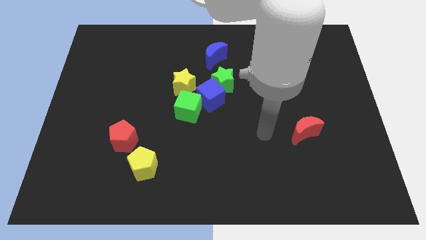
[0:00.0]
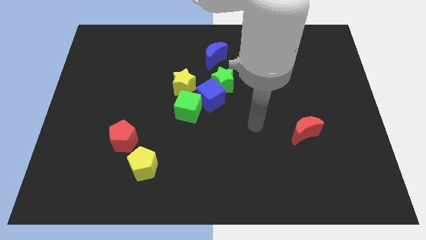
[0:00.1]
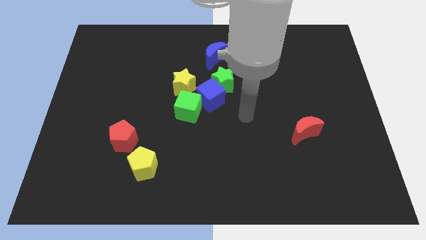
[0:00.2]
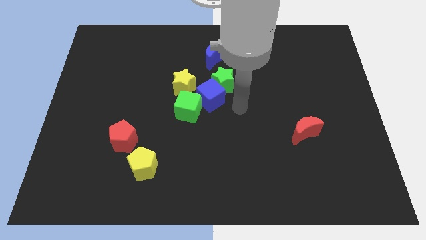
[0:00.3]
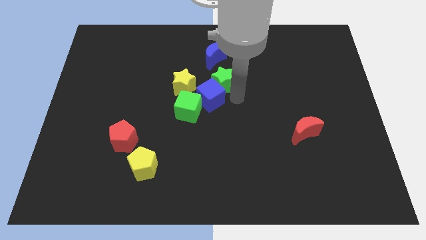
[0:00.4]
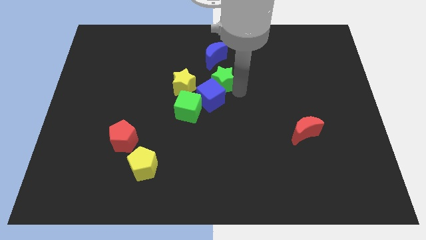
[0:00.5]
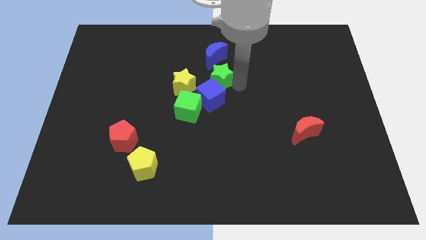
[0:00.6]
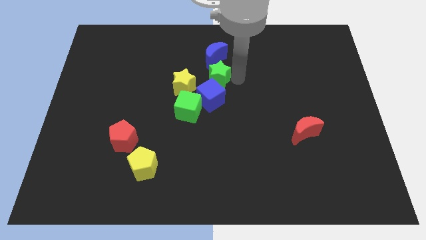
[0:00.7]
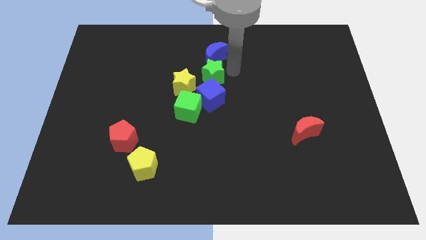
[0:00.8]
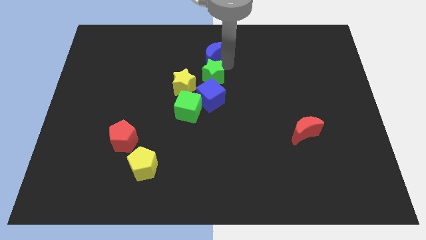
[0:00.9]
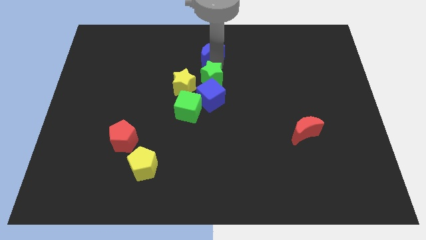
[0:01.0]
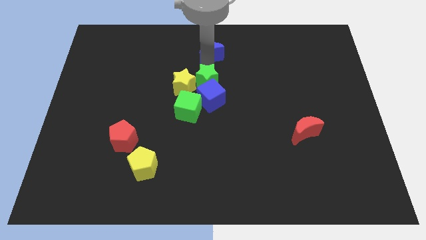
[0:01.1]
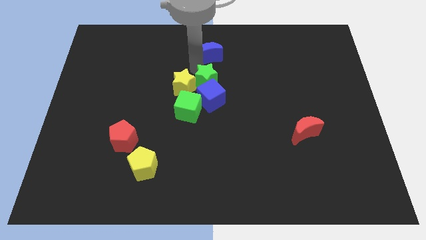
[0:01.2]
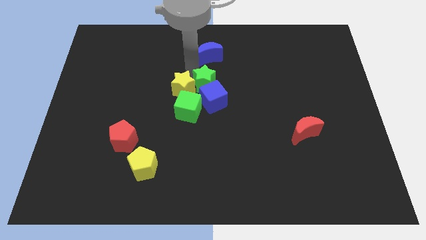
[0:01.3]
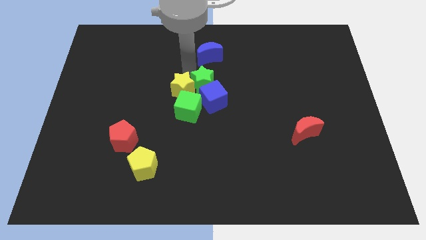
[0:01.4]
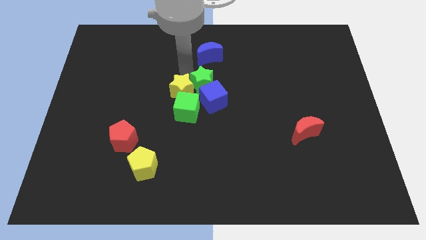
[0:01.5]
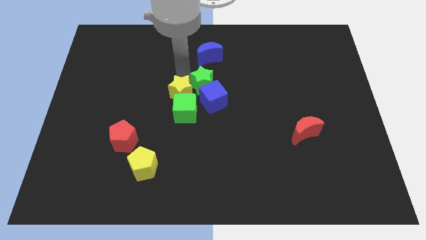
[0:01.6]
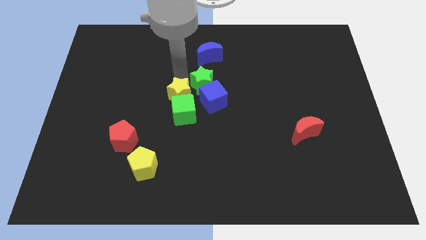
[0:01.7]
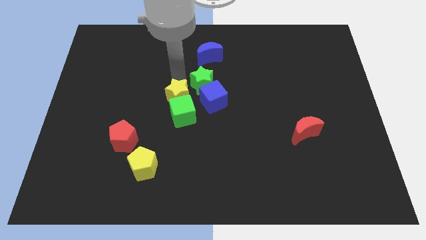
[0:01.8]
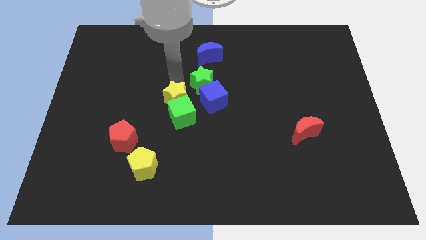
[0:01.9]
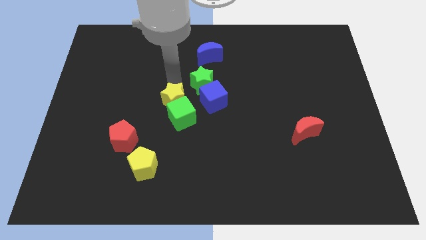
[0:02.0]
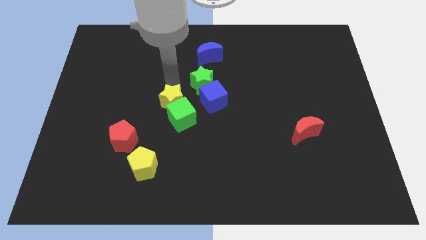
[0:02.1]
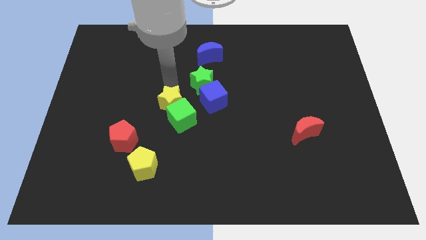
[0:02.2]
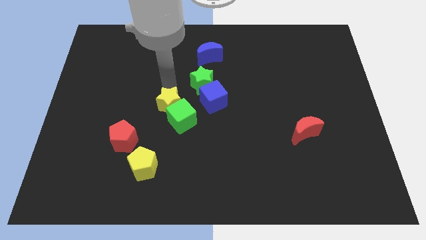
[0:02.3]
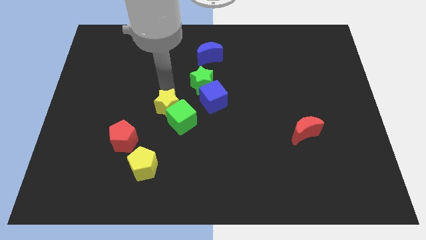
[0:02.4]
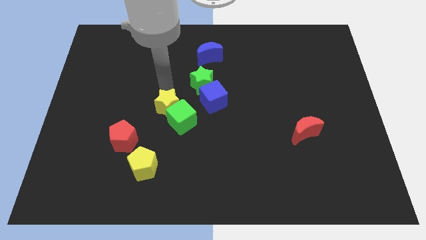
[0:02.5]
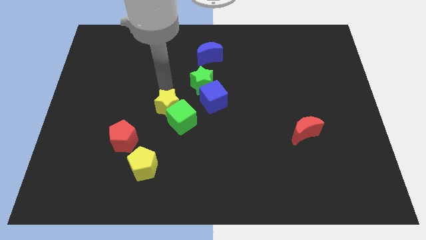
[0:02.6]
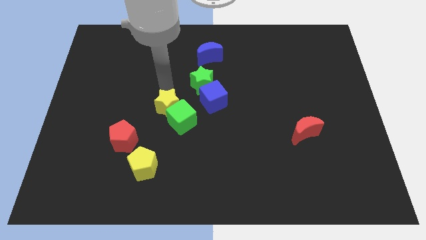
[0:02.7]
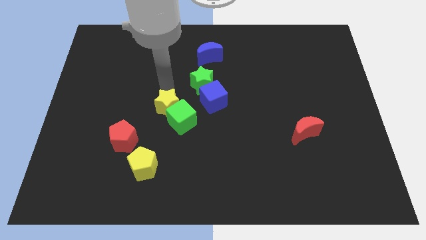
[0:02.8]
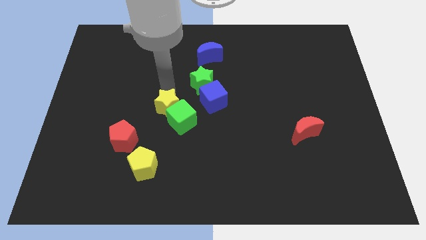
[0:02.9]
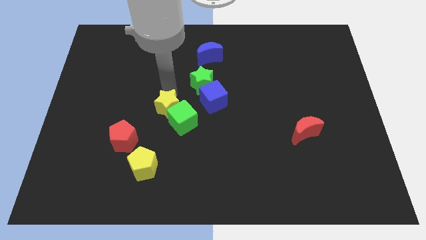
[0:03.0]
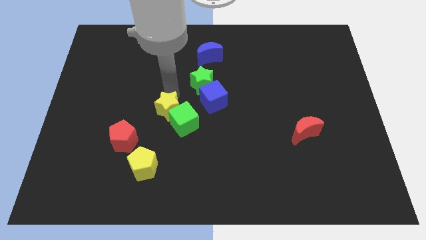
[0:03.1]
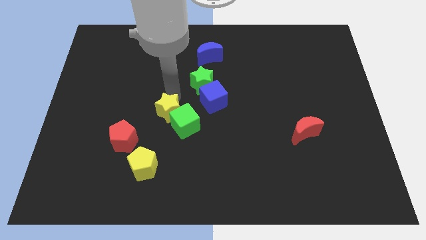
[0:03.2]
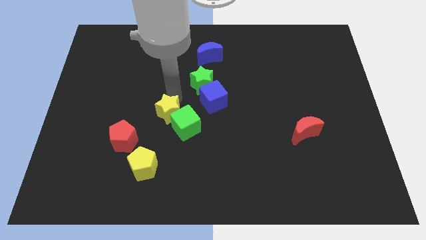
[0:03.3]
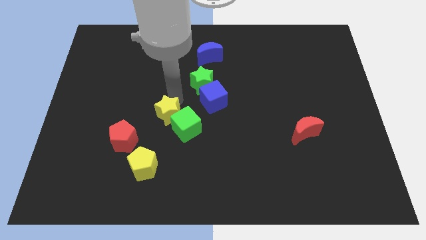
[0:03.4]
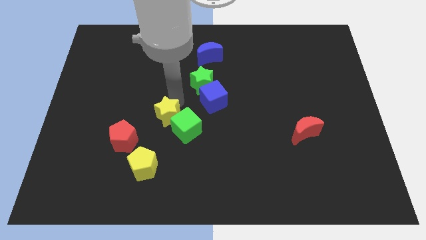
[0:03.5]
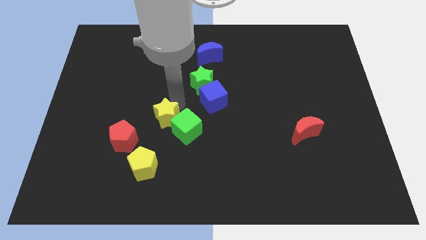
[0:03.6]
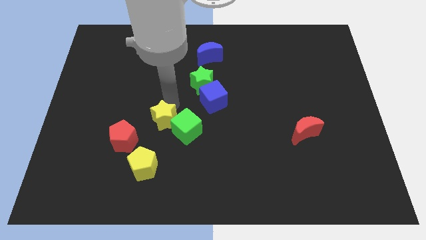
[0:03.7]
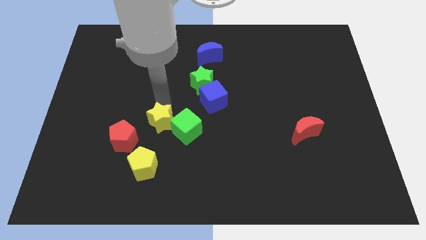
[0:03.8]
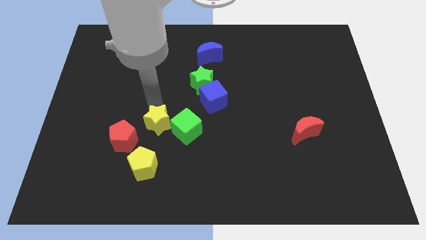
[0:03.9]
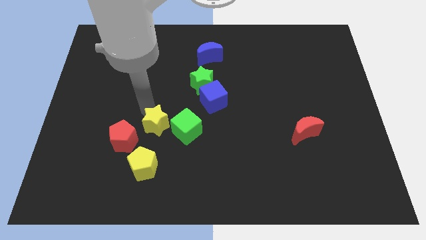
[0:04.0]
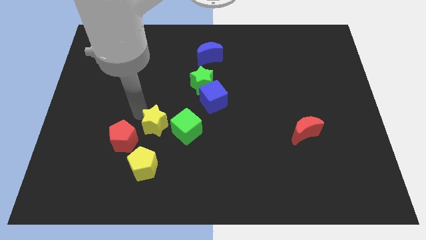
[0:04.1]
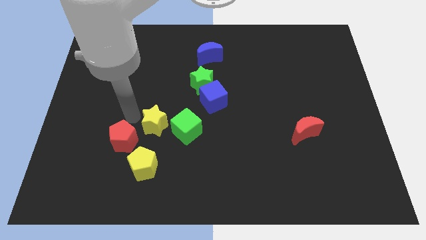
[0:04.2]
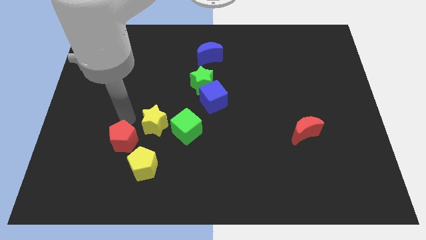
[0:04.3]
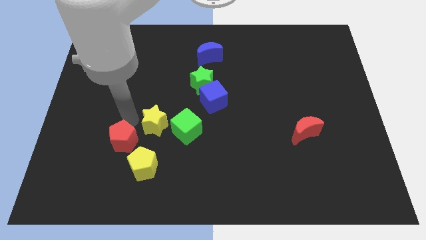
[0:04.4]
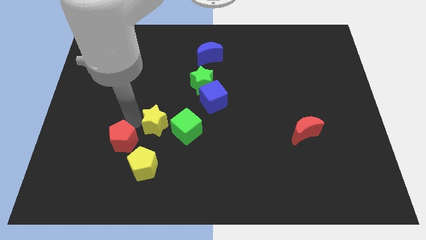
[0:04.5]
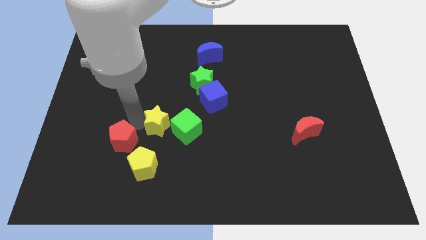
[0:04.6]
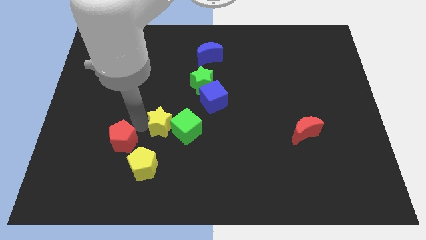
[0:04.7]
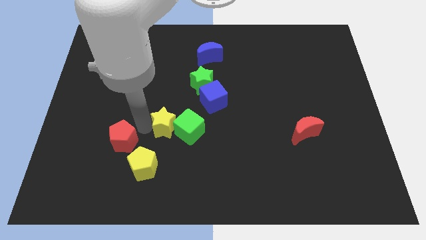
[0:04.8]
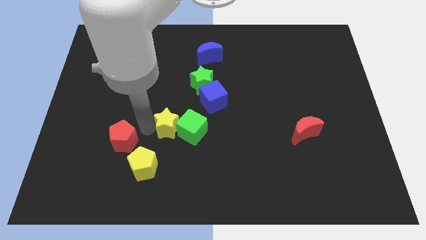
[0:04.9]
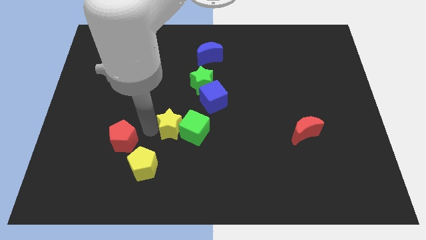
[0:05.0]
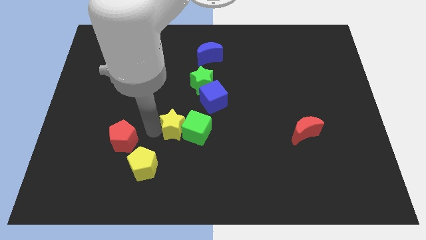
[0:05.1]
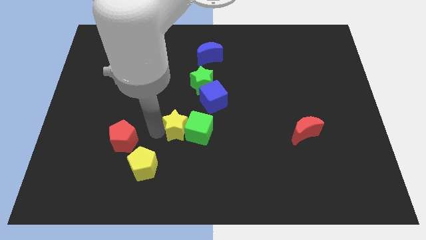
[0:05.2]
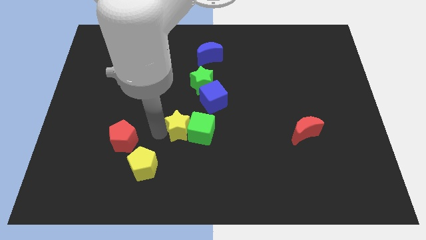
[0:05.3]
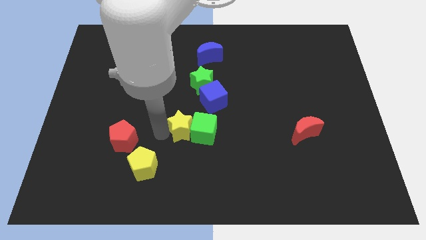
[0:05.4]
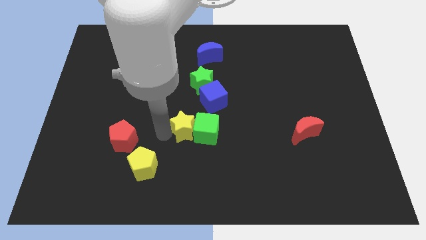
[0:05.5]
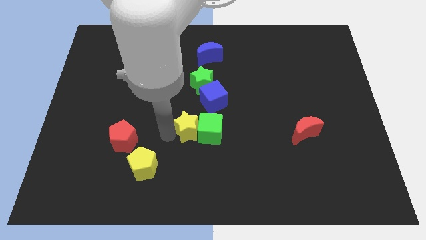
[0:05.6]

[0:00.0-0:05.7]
slide the yellow star downwards and then to the right a little

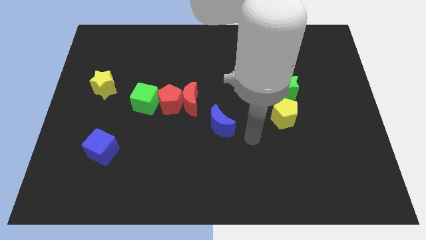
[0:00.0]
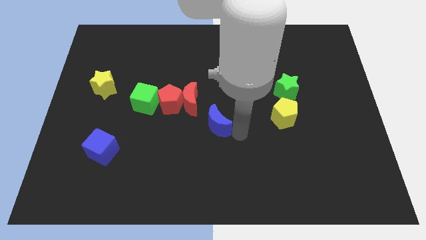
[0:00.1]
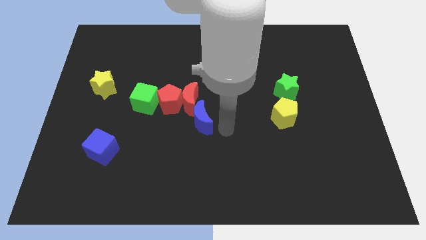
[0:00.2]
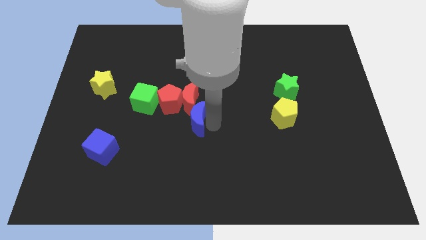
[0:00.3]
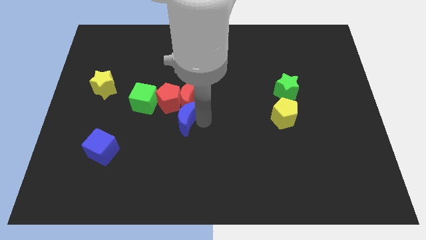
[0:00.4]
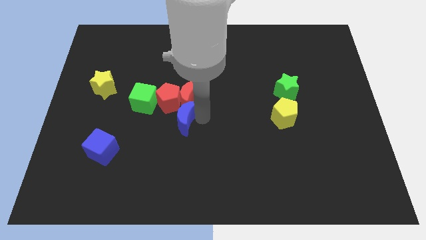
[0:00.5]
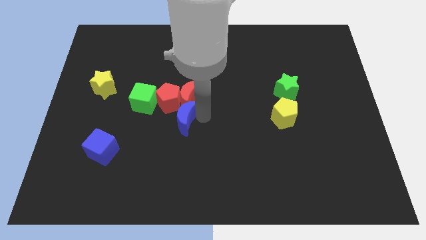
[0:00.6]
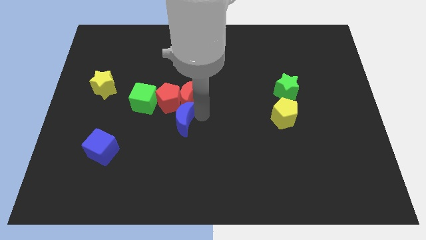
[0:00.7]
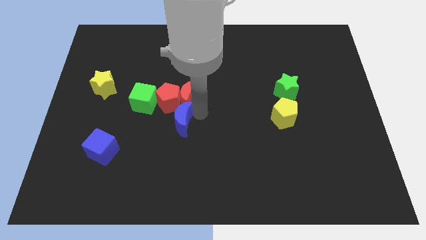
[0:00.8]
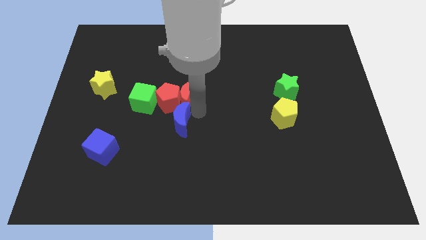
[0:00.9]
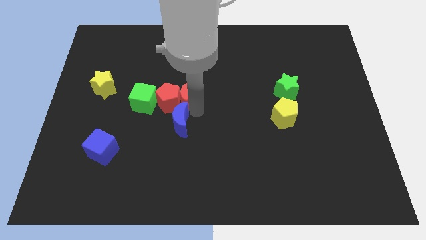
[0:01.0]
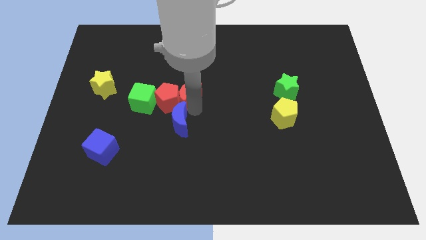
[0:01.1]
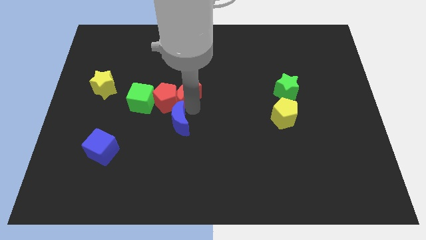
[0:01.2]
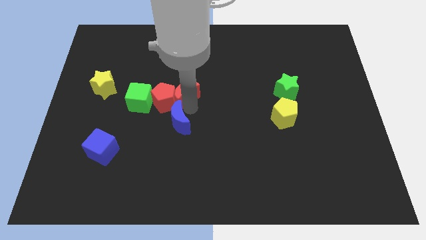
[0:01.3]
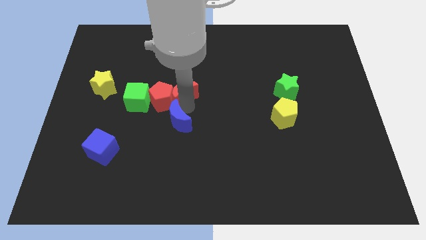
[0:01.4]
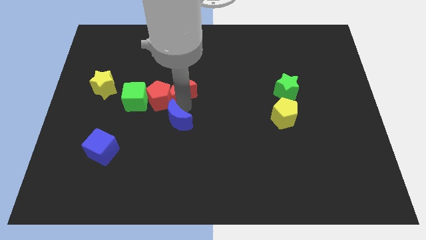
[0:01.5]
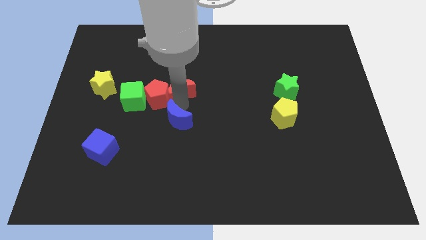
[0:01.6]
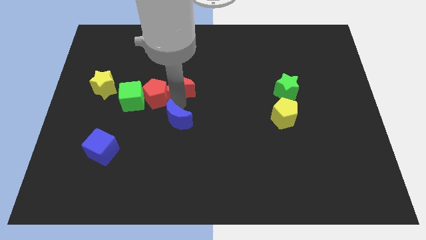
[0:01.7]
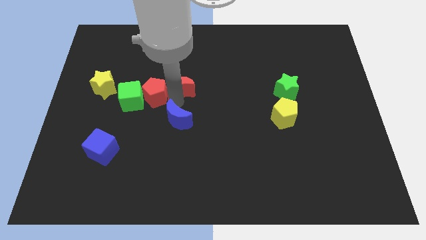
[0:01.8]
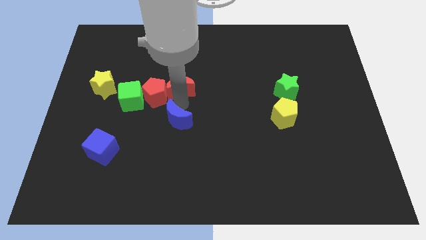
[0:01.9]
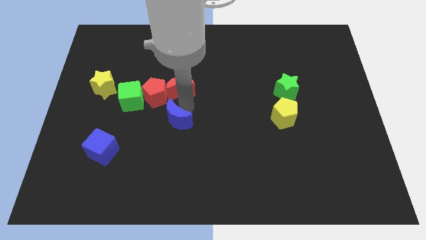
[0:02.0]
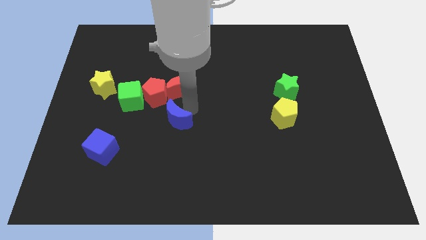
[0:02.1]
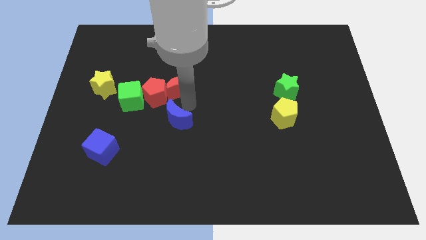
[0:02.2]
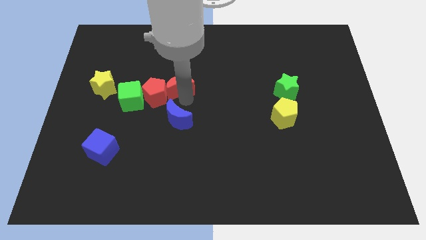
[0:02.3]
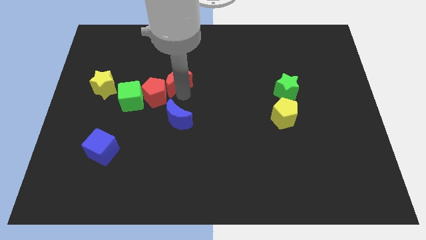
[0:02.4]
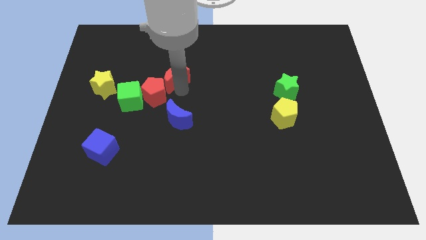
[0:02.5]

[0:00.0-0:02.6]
move the red moon a little up and to the left
